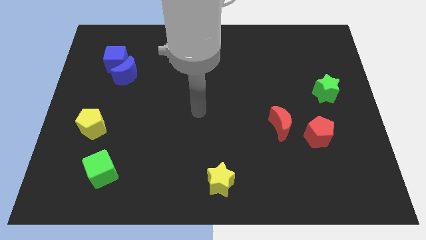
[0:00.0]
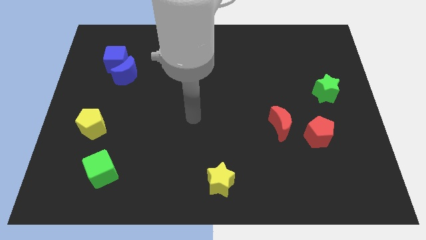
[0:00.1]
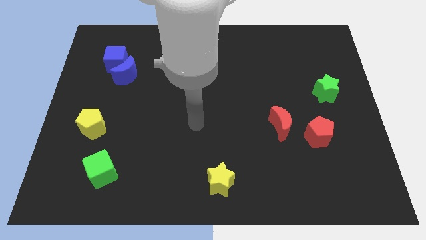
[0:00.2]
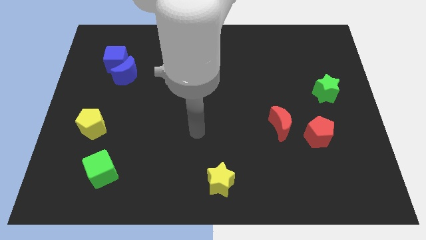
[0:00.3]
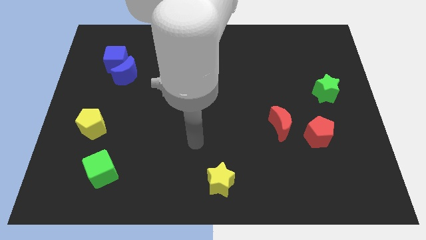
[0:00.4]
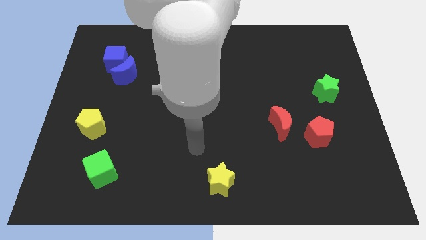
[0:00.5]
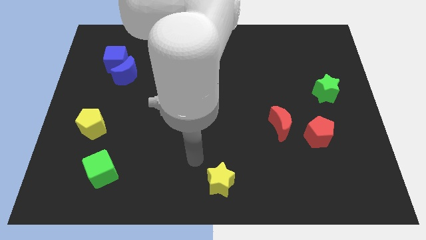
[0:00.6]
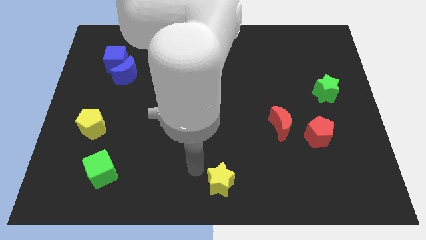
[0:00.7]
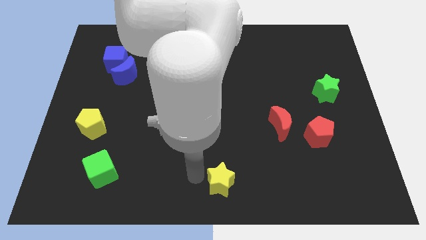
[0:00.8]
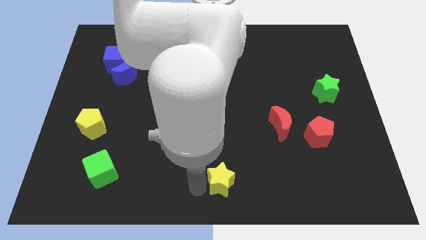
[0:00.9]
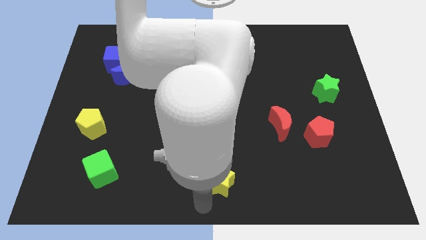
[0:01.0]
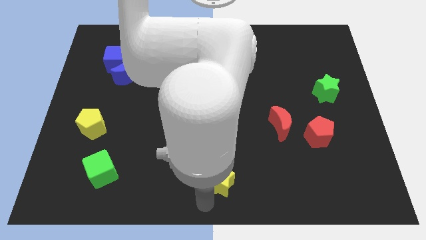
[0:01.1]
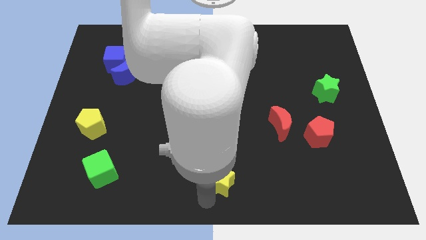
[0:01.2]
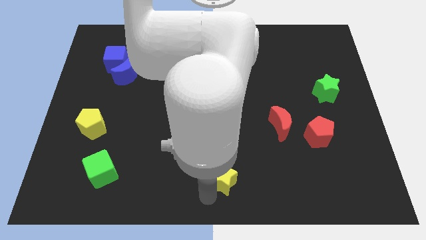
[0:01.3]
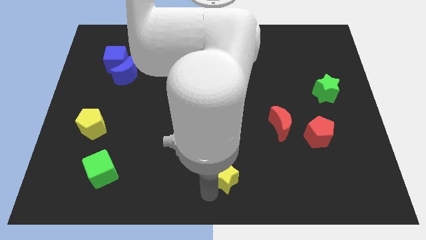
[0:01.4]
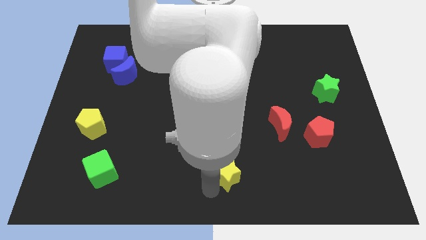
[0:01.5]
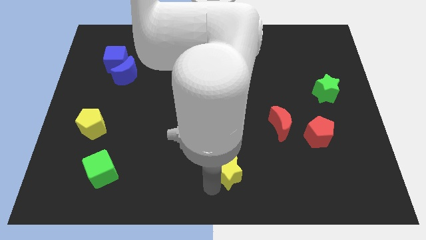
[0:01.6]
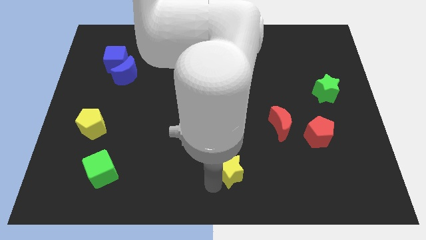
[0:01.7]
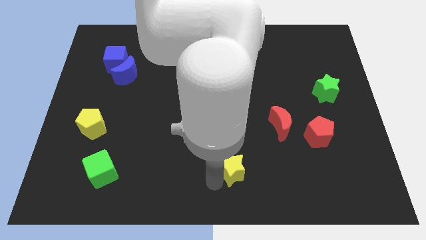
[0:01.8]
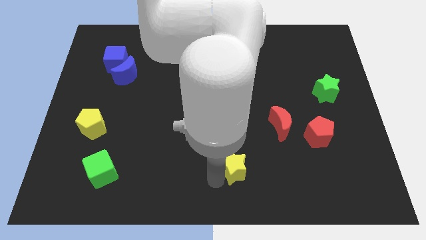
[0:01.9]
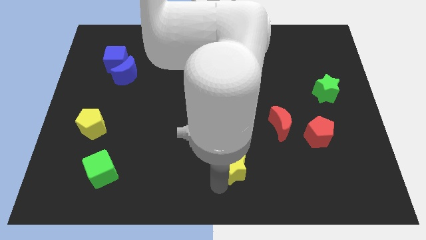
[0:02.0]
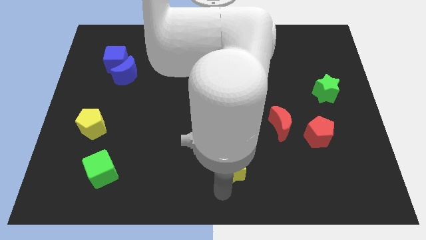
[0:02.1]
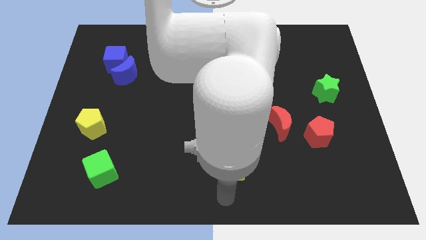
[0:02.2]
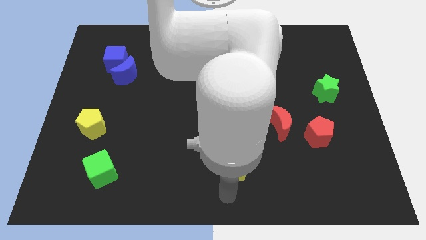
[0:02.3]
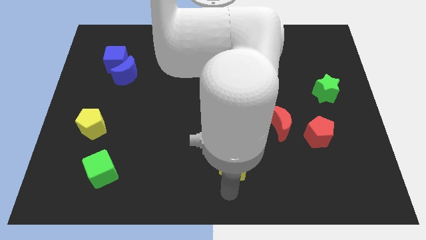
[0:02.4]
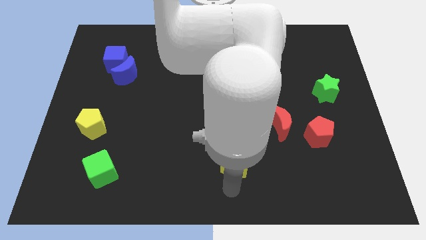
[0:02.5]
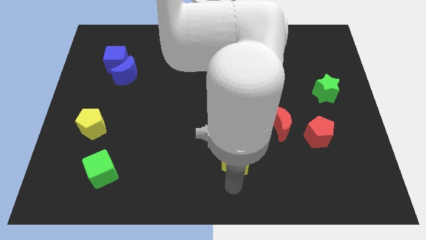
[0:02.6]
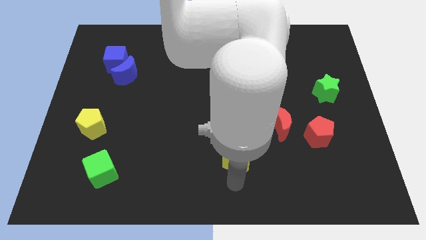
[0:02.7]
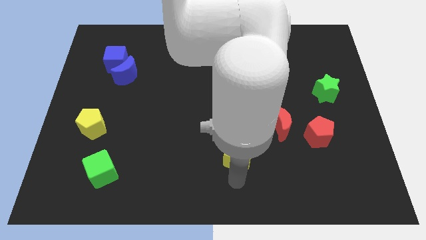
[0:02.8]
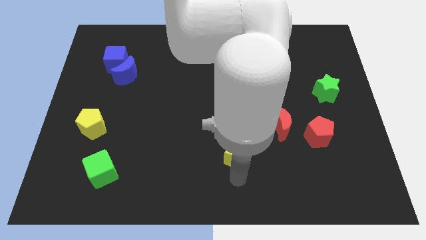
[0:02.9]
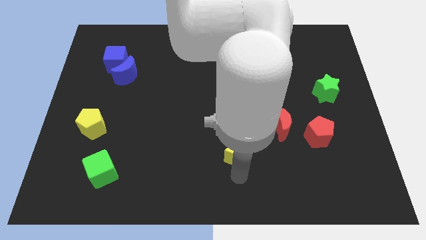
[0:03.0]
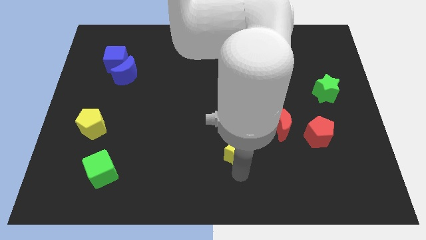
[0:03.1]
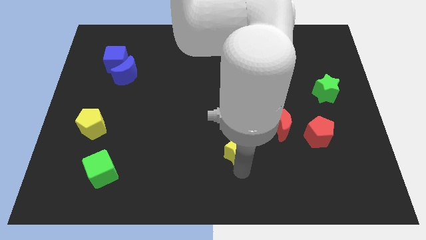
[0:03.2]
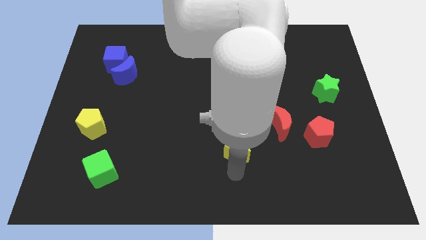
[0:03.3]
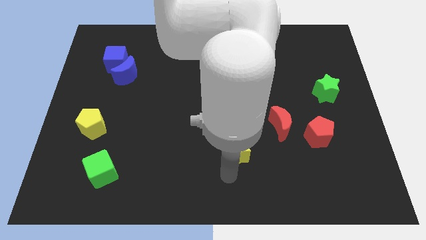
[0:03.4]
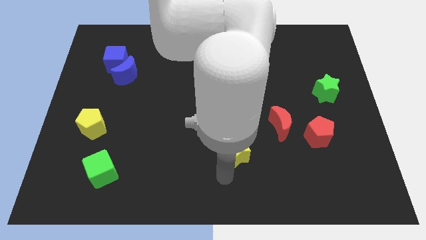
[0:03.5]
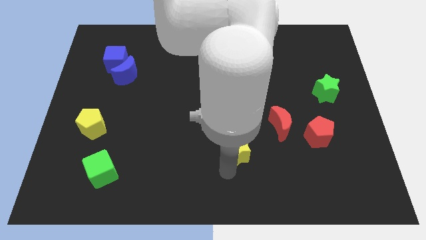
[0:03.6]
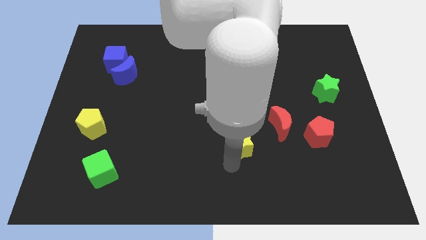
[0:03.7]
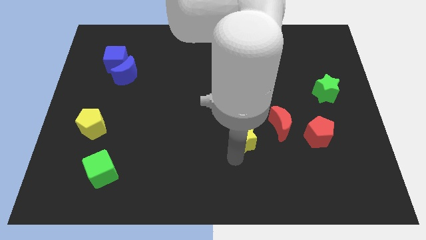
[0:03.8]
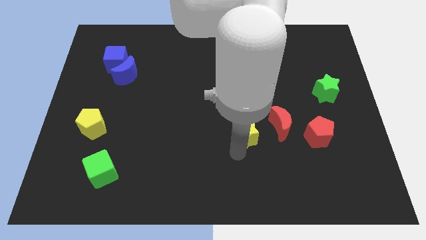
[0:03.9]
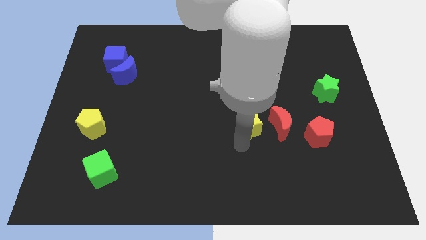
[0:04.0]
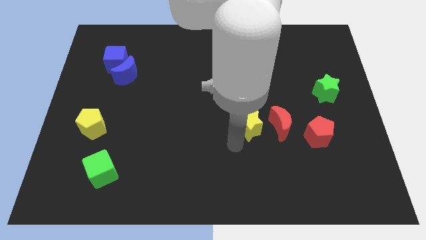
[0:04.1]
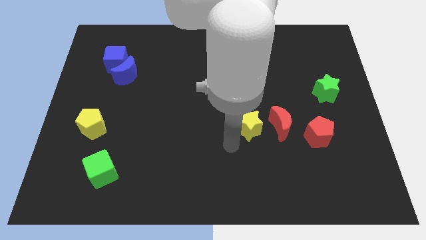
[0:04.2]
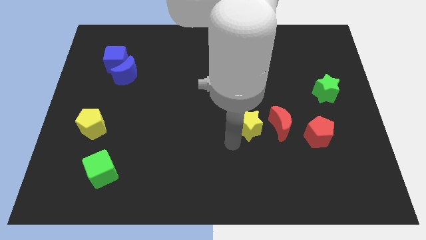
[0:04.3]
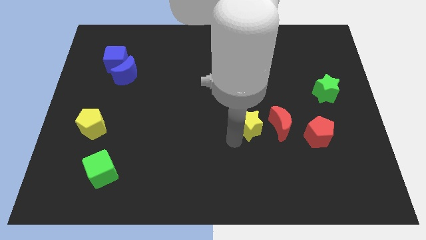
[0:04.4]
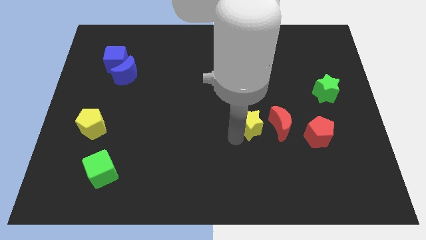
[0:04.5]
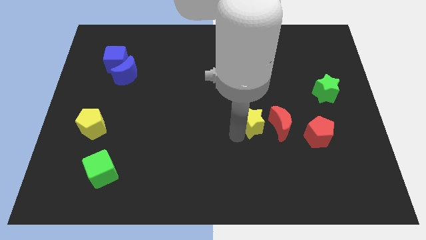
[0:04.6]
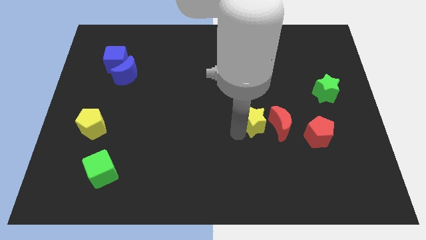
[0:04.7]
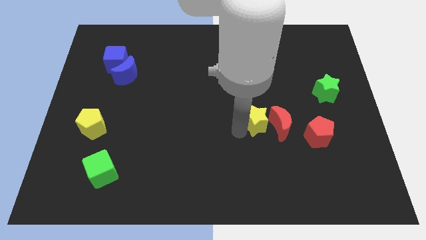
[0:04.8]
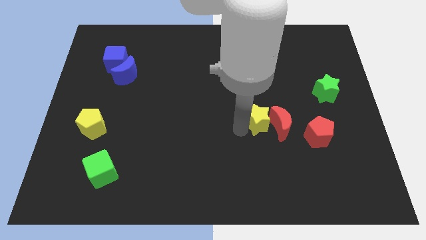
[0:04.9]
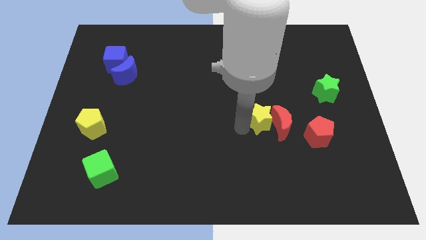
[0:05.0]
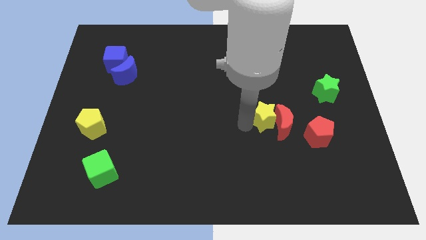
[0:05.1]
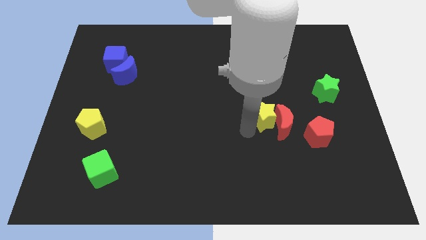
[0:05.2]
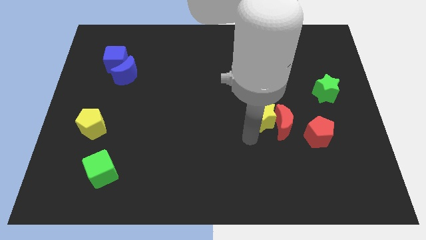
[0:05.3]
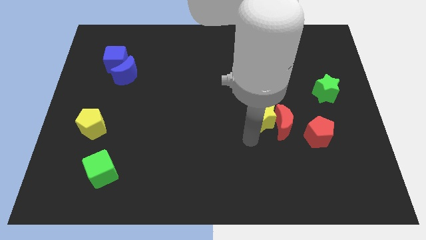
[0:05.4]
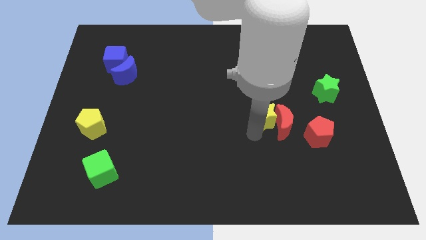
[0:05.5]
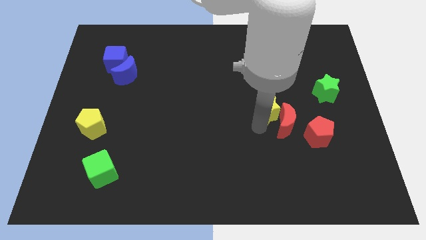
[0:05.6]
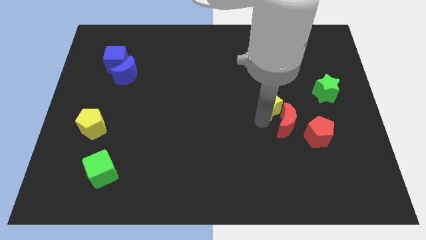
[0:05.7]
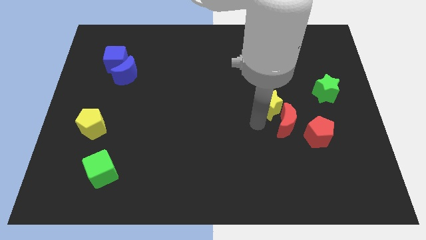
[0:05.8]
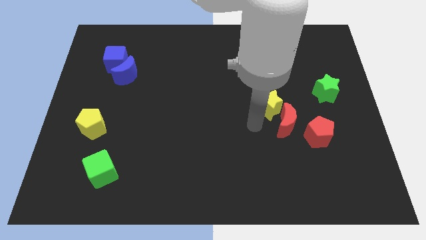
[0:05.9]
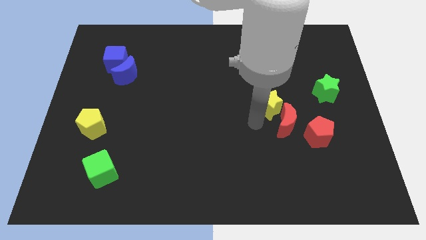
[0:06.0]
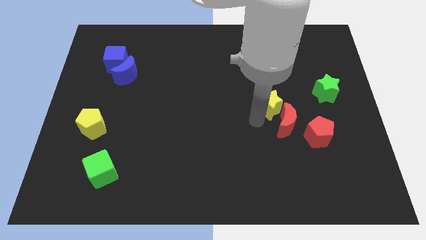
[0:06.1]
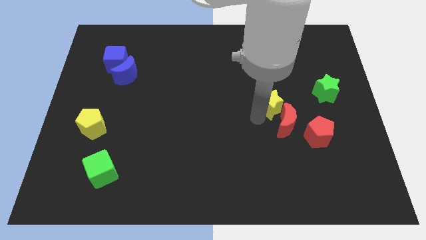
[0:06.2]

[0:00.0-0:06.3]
push the yellow star just left of the green star

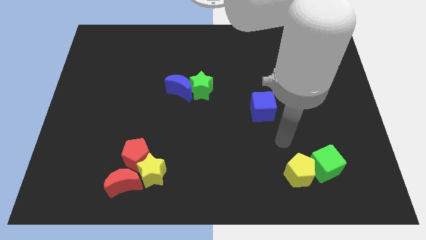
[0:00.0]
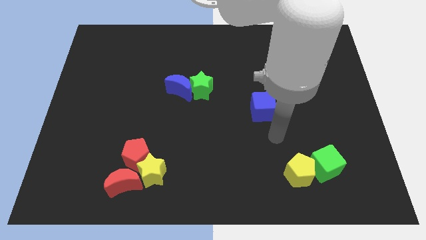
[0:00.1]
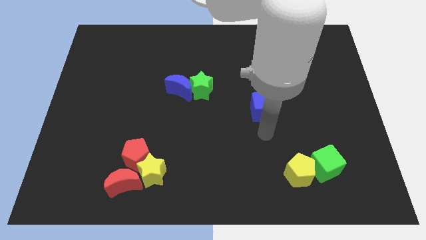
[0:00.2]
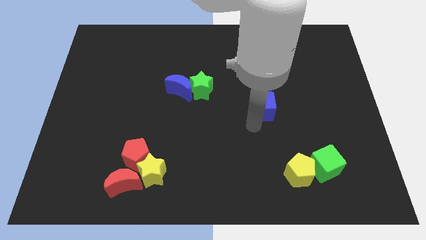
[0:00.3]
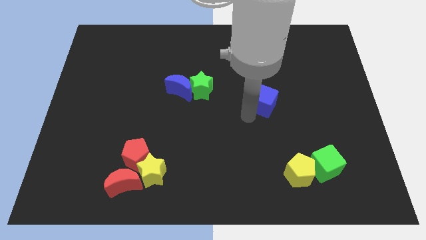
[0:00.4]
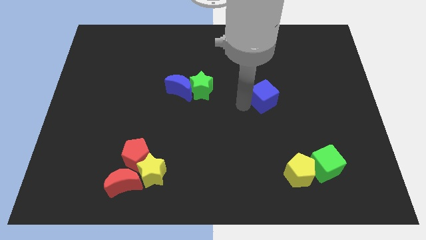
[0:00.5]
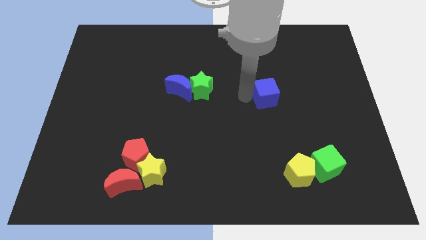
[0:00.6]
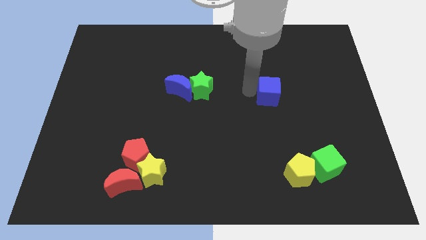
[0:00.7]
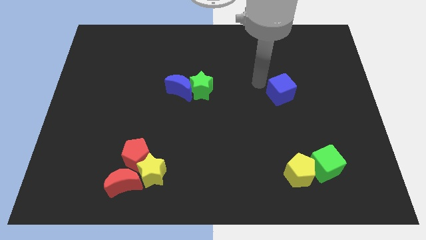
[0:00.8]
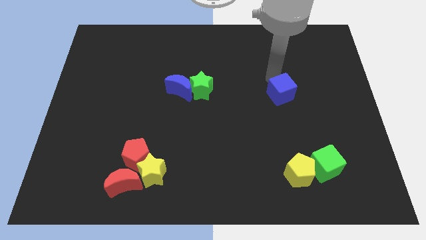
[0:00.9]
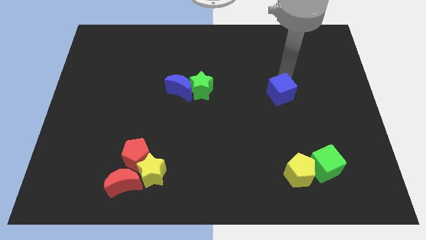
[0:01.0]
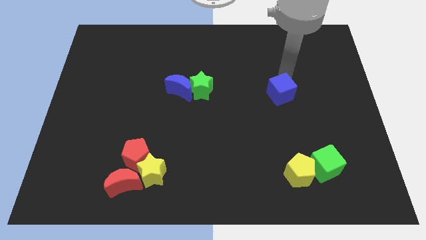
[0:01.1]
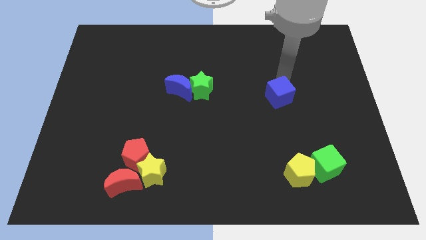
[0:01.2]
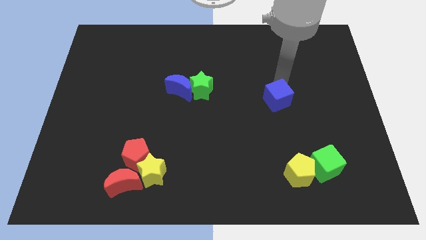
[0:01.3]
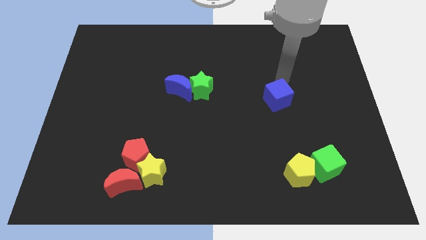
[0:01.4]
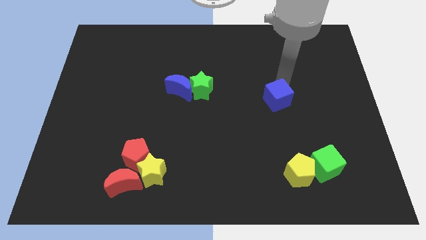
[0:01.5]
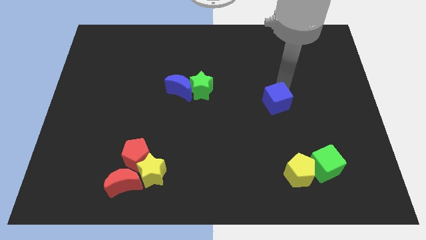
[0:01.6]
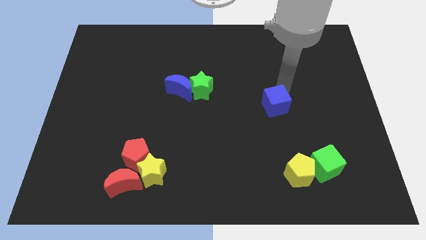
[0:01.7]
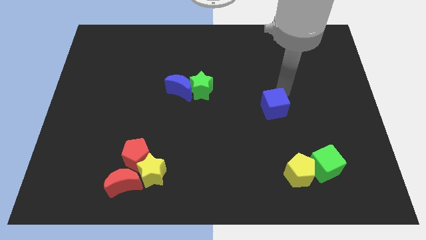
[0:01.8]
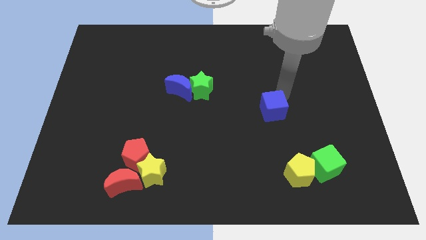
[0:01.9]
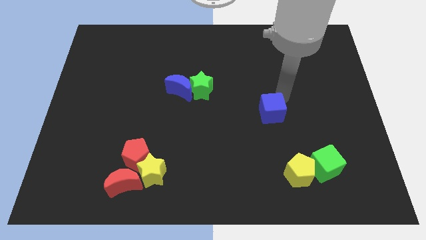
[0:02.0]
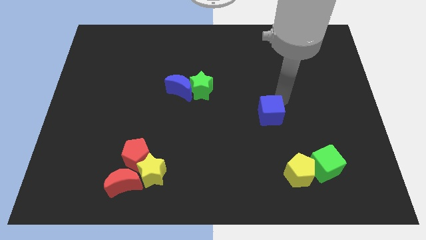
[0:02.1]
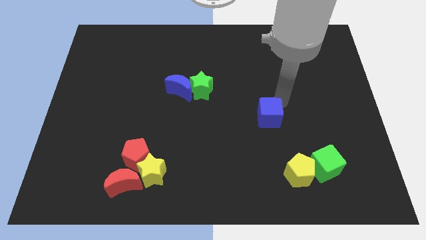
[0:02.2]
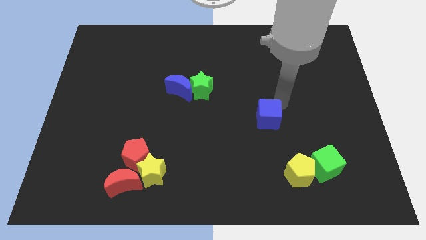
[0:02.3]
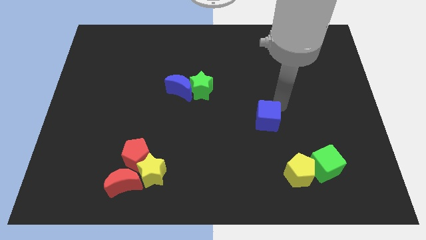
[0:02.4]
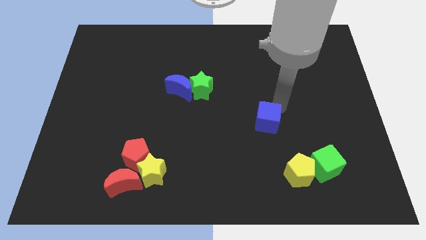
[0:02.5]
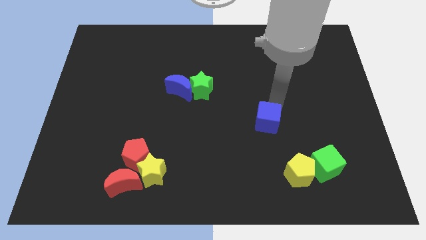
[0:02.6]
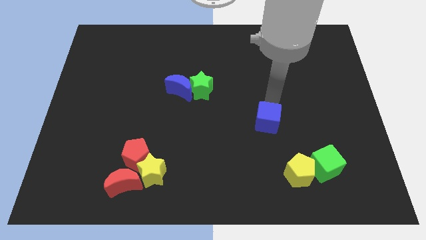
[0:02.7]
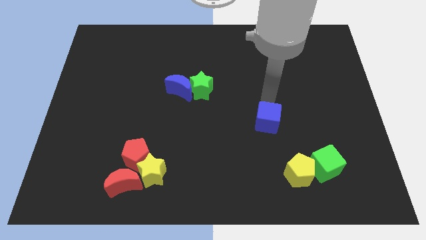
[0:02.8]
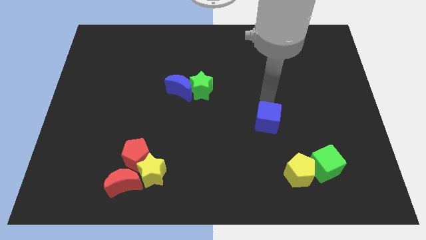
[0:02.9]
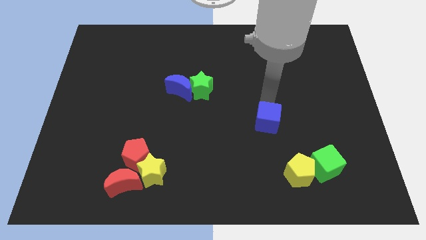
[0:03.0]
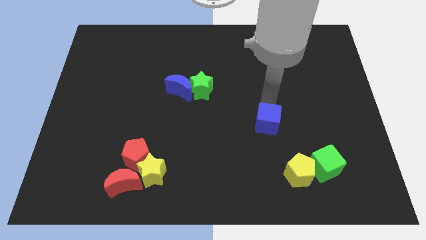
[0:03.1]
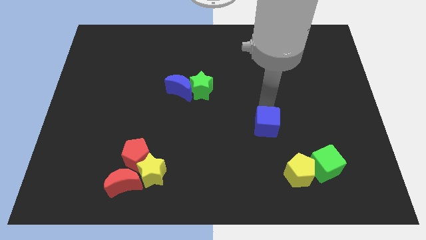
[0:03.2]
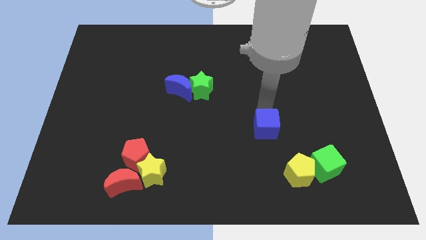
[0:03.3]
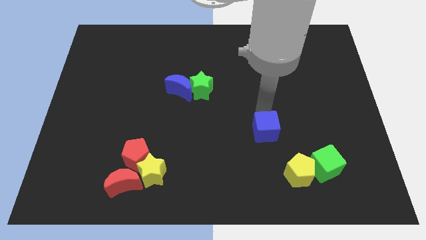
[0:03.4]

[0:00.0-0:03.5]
put the blue cube diagonally up and to the left of the yellow pentagon
